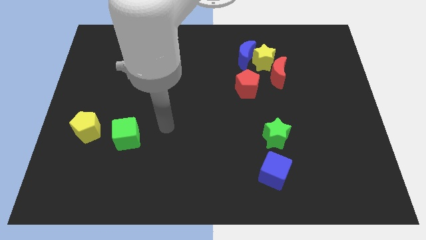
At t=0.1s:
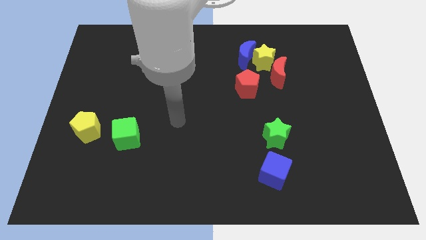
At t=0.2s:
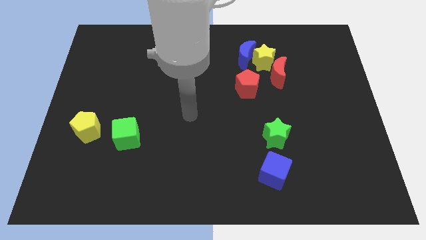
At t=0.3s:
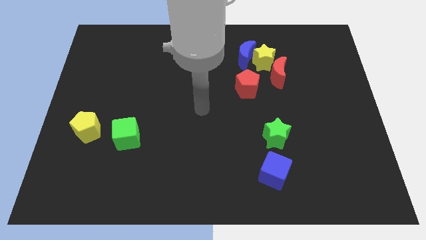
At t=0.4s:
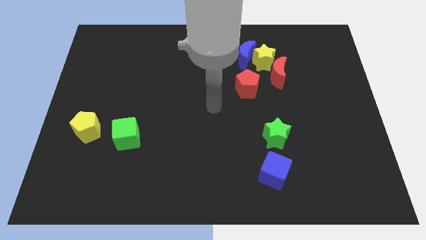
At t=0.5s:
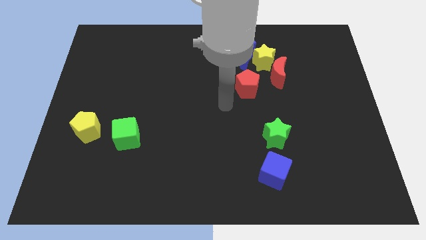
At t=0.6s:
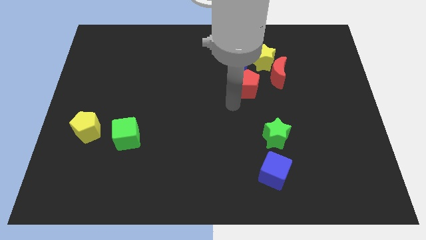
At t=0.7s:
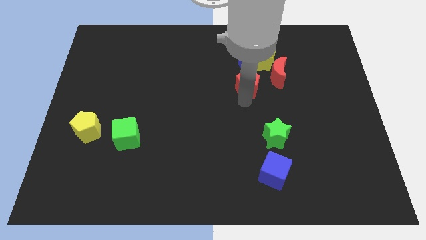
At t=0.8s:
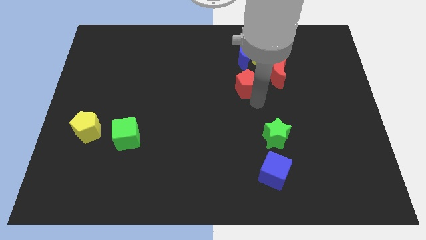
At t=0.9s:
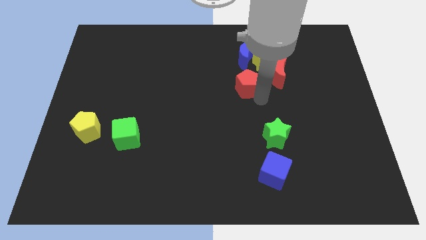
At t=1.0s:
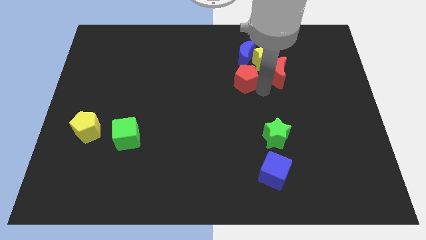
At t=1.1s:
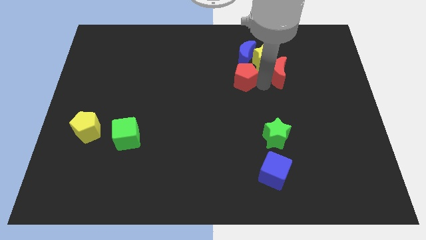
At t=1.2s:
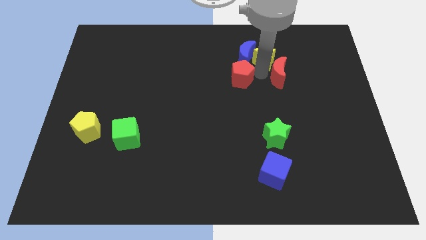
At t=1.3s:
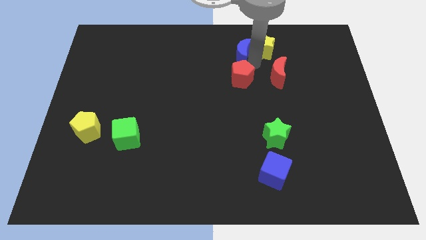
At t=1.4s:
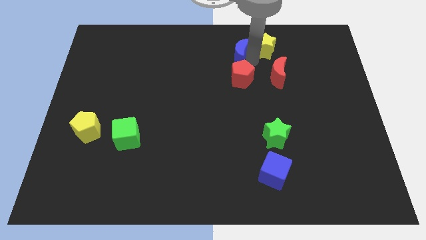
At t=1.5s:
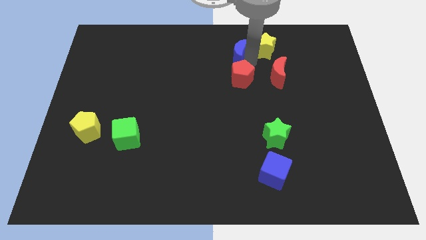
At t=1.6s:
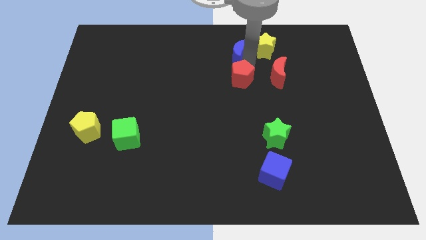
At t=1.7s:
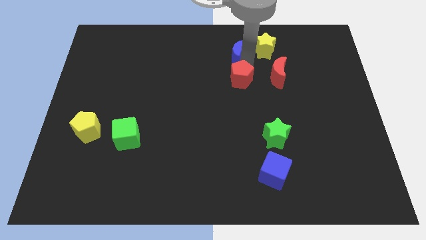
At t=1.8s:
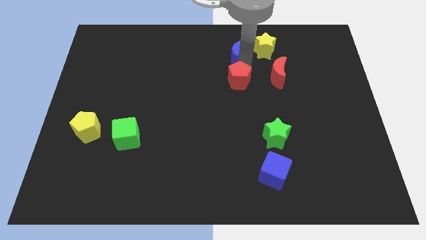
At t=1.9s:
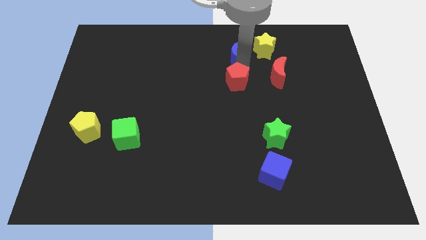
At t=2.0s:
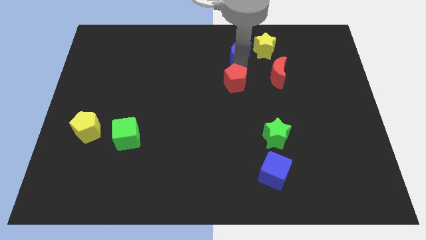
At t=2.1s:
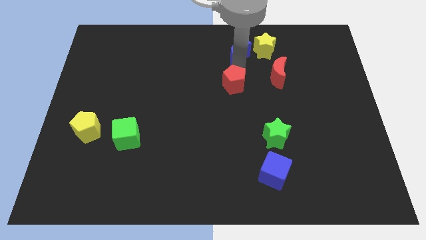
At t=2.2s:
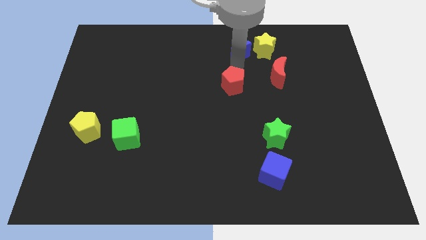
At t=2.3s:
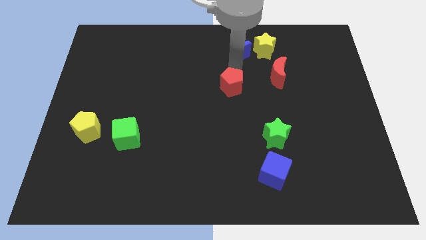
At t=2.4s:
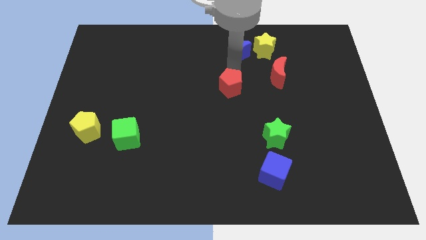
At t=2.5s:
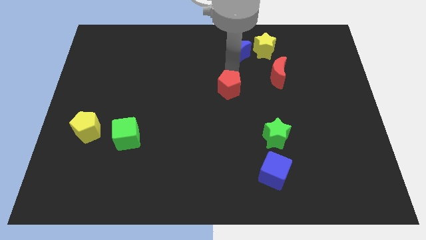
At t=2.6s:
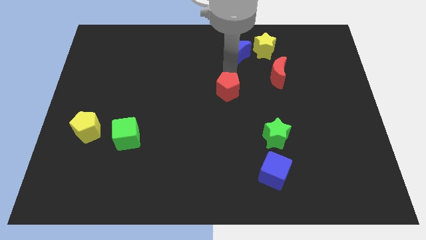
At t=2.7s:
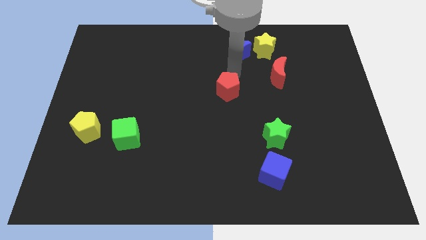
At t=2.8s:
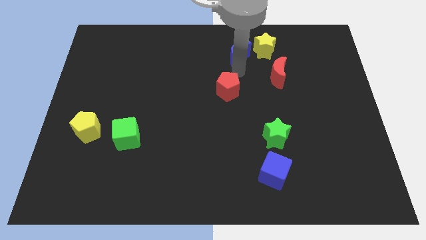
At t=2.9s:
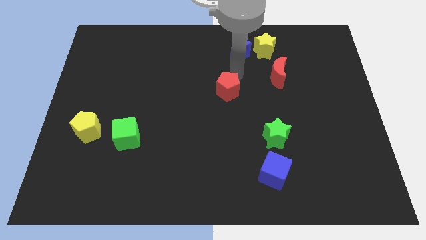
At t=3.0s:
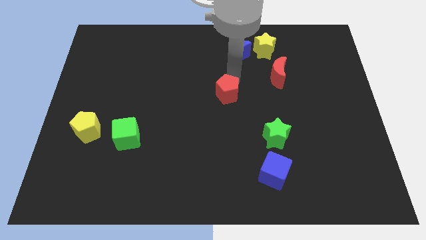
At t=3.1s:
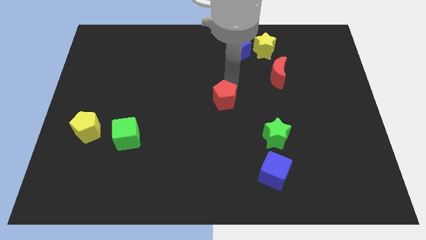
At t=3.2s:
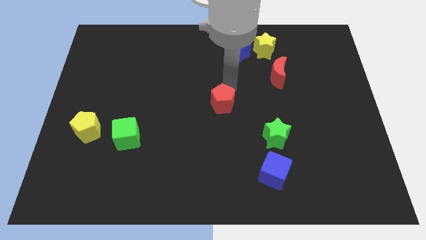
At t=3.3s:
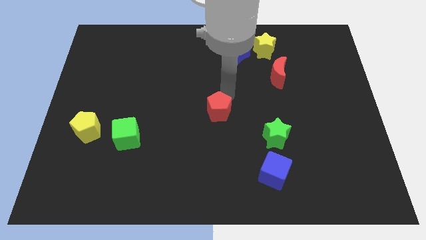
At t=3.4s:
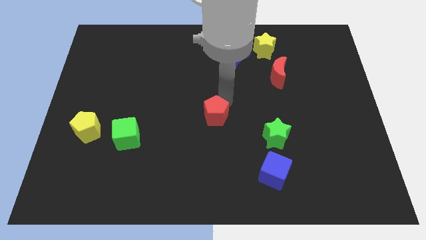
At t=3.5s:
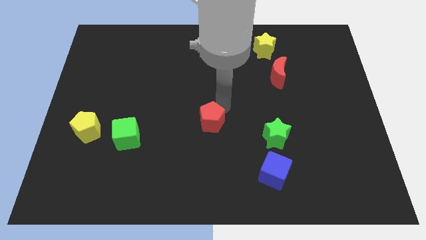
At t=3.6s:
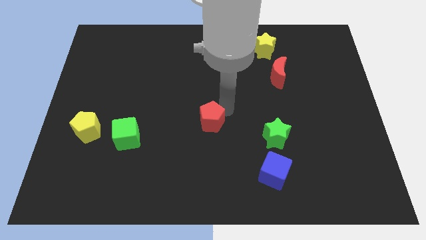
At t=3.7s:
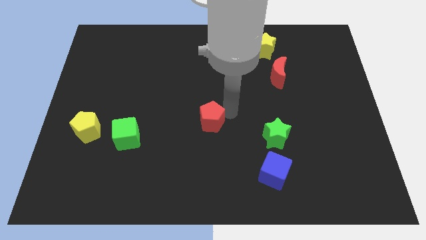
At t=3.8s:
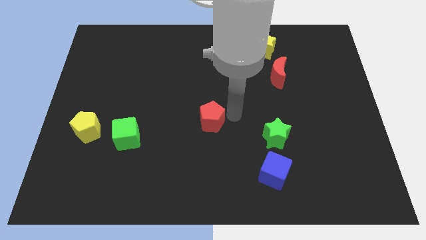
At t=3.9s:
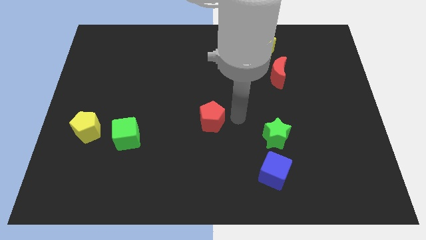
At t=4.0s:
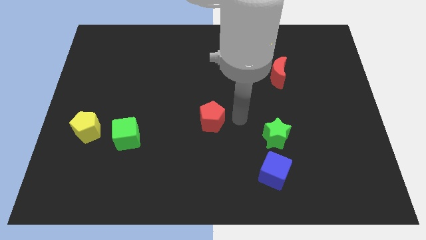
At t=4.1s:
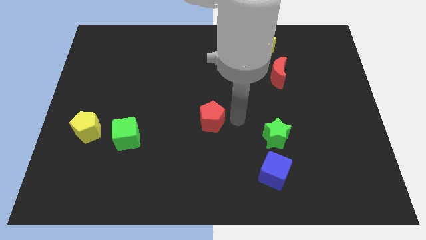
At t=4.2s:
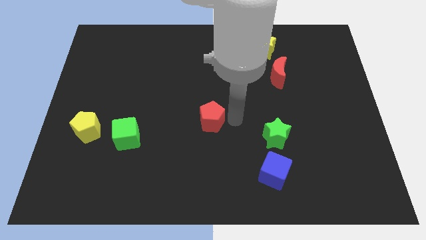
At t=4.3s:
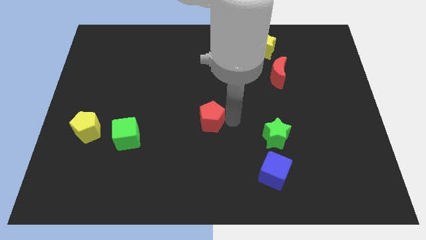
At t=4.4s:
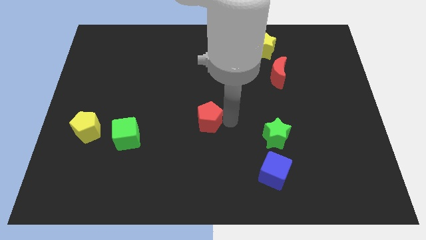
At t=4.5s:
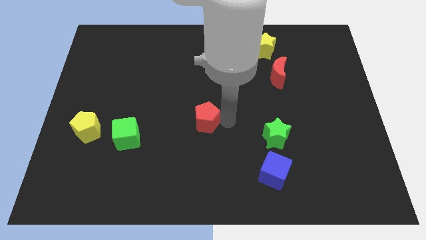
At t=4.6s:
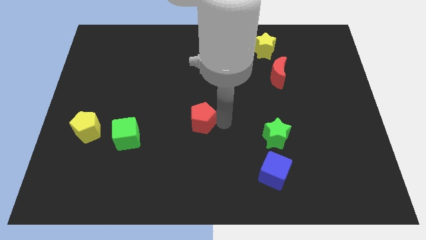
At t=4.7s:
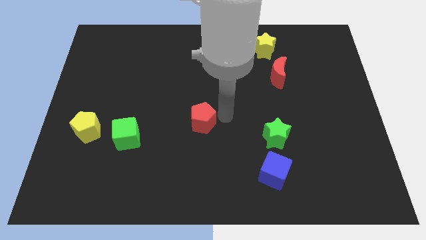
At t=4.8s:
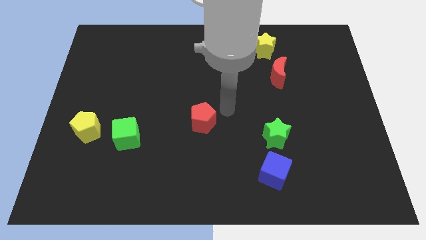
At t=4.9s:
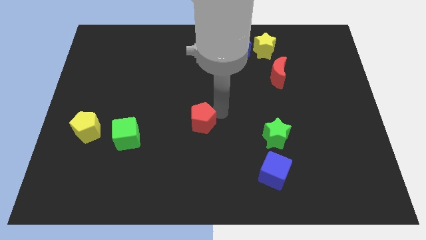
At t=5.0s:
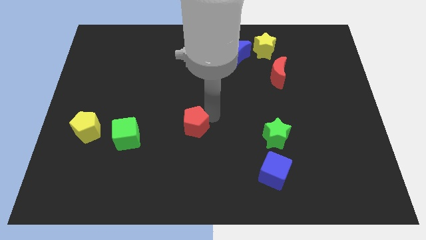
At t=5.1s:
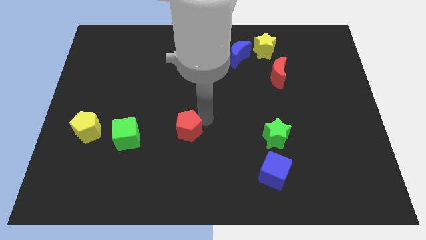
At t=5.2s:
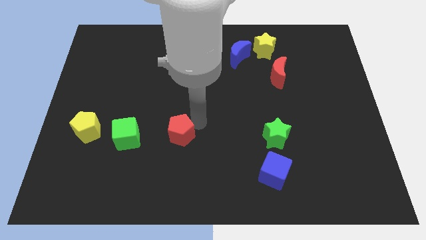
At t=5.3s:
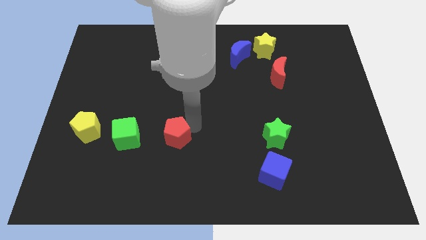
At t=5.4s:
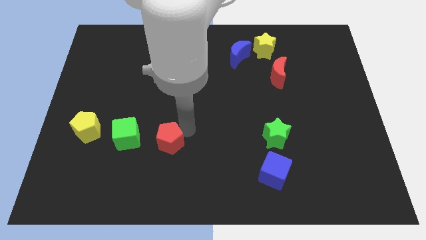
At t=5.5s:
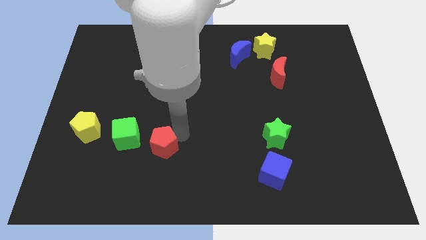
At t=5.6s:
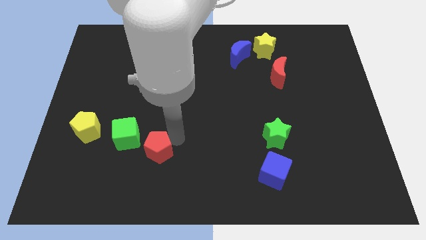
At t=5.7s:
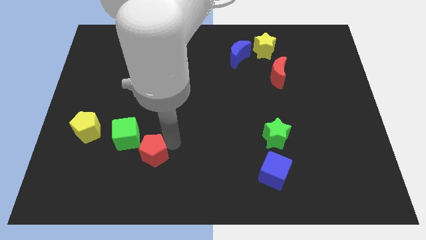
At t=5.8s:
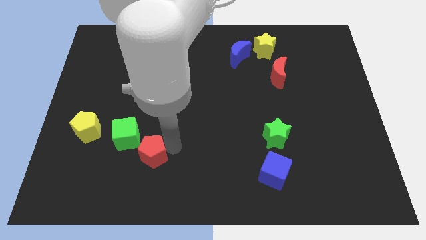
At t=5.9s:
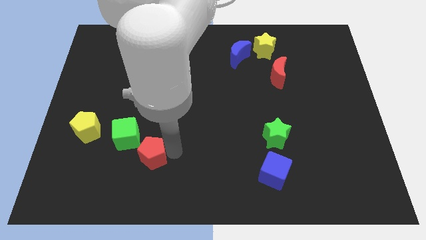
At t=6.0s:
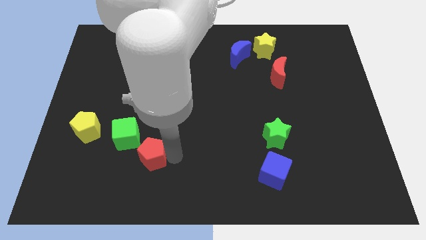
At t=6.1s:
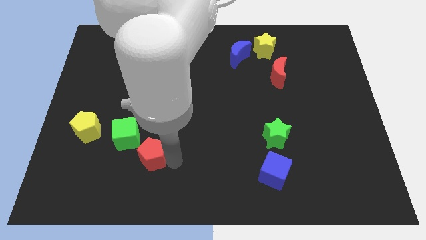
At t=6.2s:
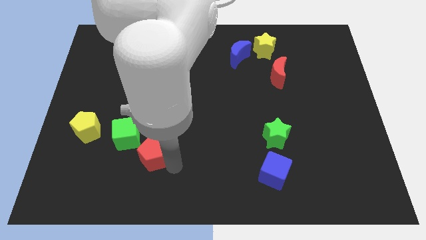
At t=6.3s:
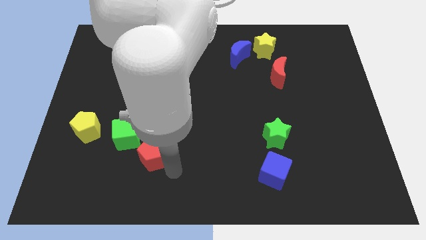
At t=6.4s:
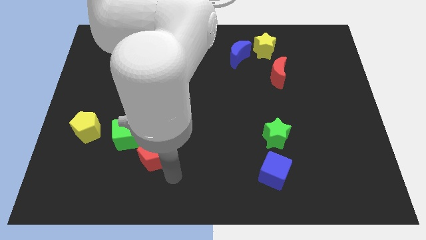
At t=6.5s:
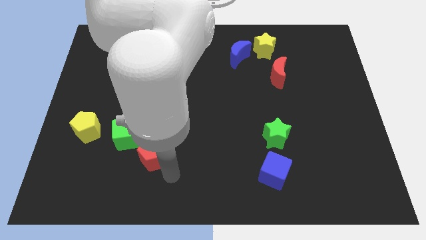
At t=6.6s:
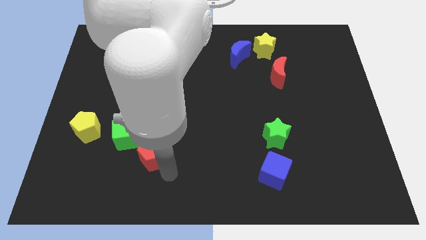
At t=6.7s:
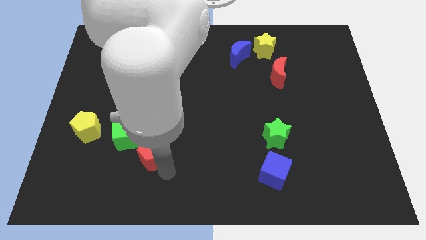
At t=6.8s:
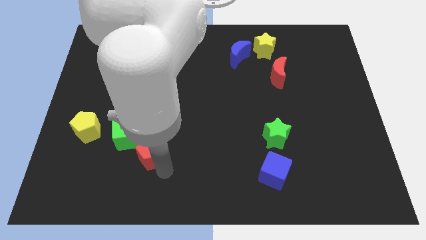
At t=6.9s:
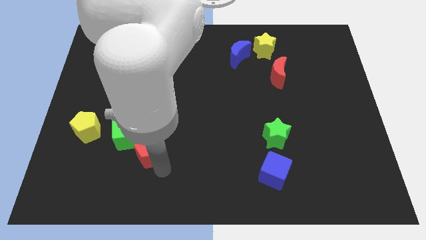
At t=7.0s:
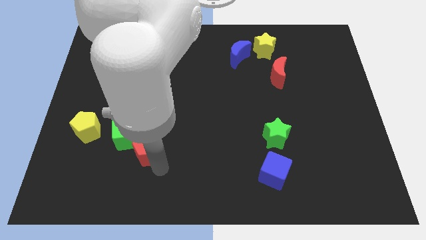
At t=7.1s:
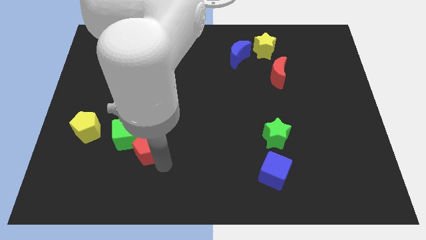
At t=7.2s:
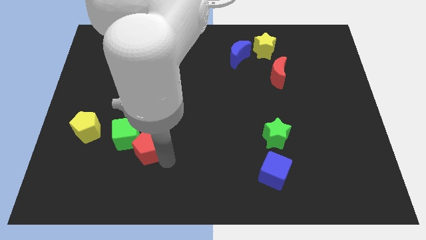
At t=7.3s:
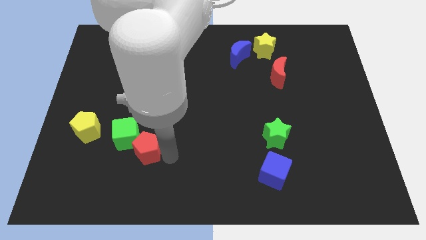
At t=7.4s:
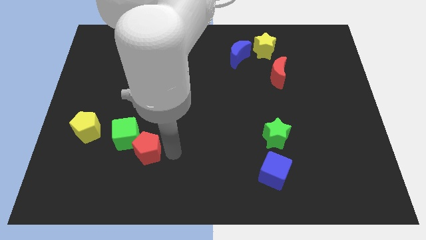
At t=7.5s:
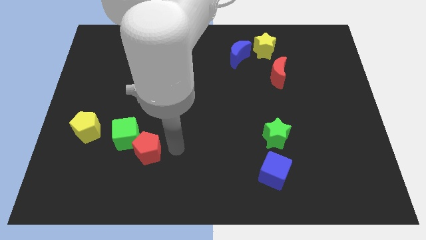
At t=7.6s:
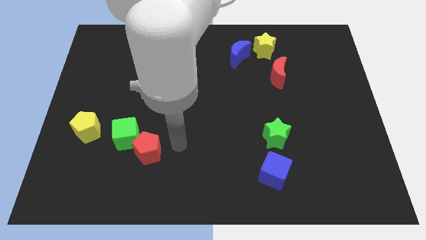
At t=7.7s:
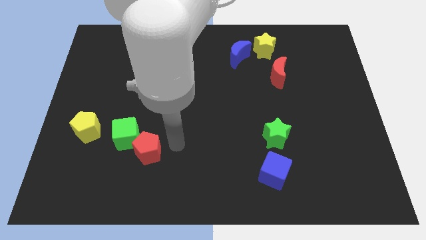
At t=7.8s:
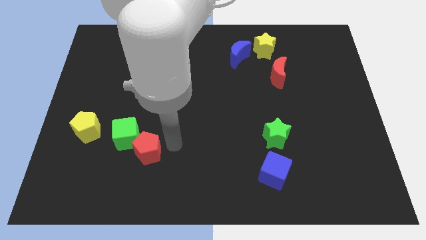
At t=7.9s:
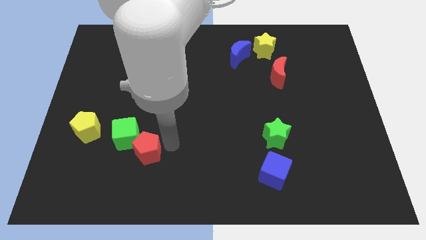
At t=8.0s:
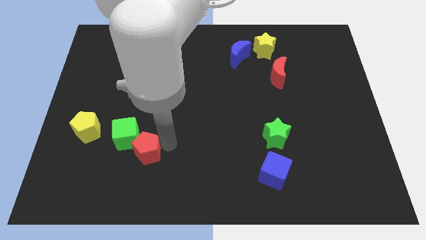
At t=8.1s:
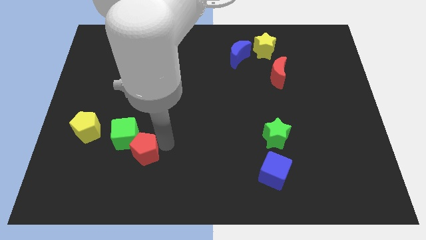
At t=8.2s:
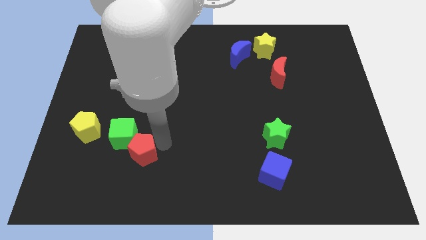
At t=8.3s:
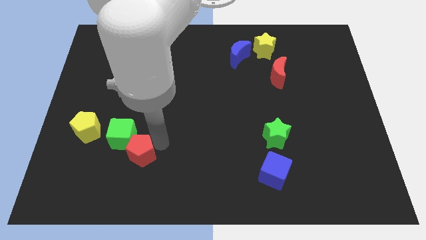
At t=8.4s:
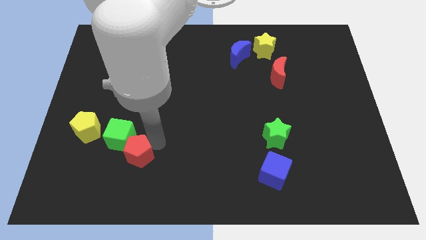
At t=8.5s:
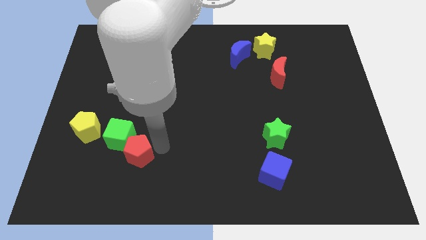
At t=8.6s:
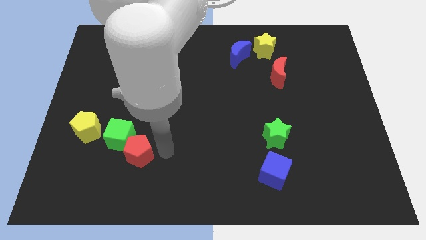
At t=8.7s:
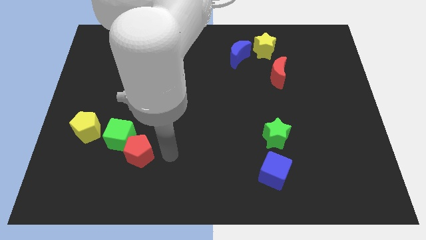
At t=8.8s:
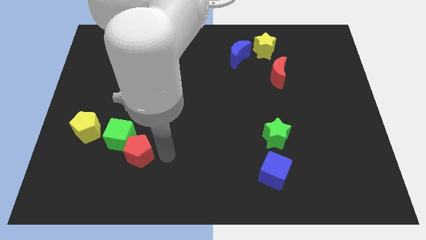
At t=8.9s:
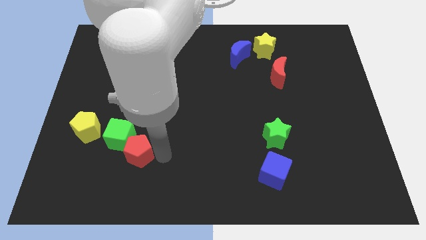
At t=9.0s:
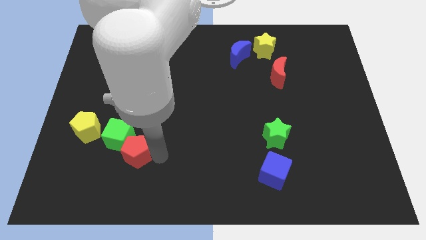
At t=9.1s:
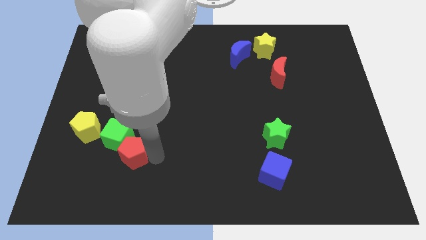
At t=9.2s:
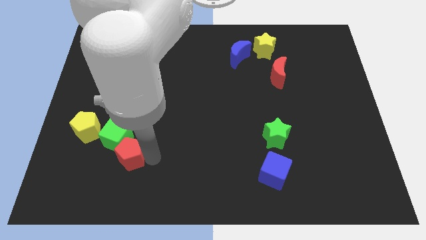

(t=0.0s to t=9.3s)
put the red pentagon diagonally down and to the right of the yellow pentagon
